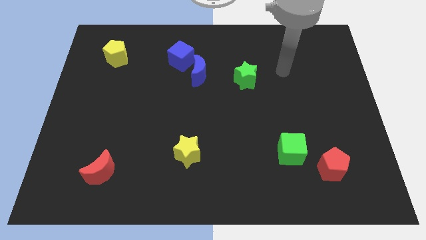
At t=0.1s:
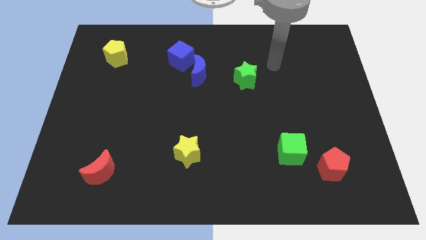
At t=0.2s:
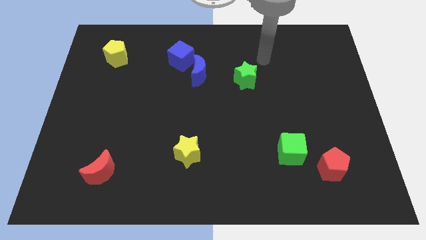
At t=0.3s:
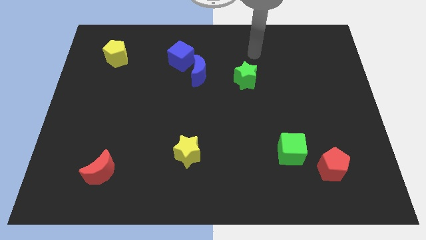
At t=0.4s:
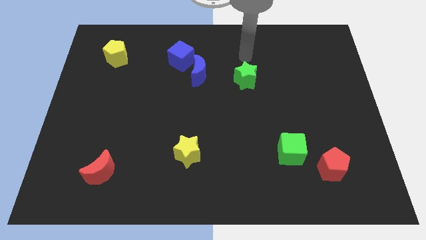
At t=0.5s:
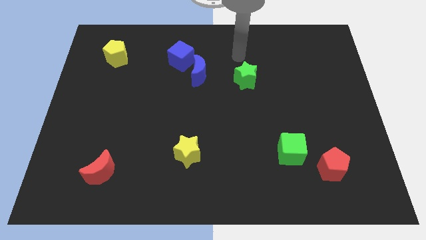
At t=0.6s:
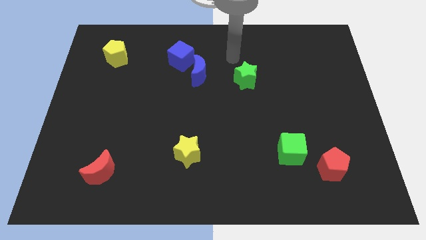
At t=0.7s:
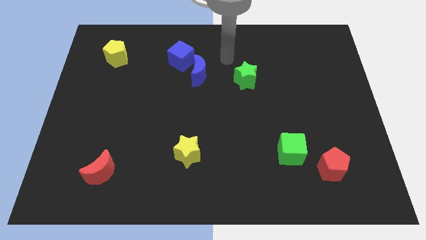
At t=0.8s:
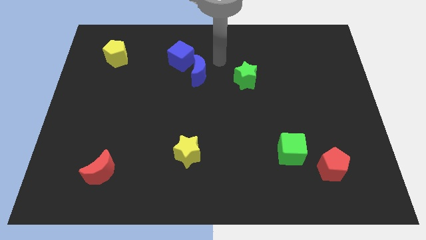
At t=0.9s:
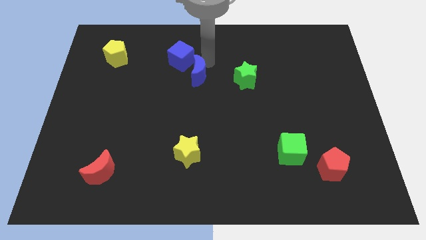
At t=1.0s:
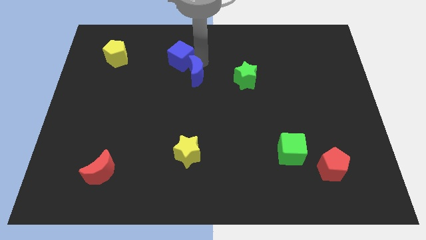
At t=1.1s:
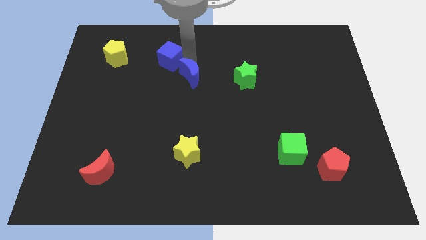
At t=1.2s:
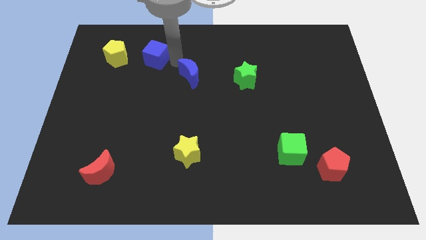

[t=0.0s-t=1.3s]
pull the blue moon apart from the blue cube

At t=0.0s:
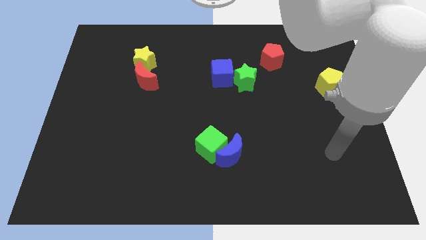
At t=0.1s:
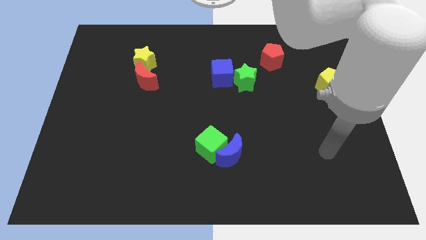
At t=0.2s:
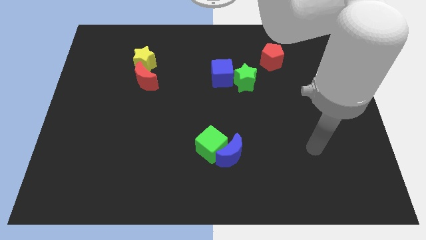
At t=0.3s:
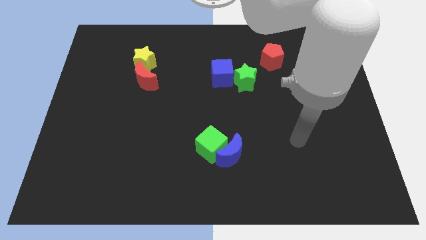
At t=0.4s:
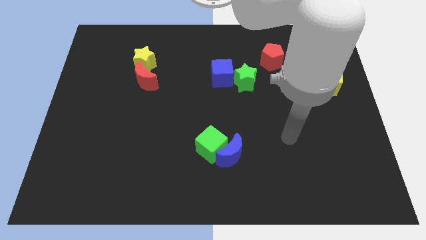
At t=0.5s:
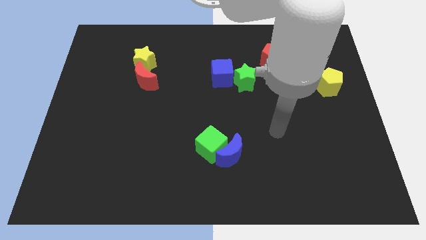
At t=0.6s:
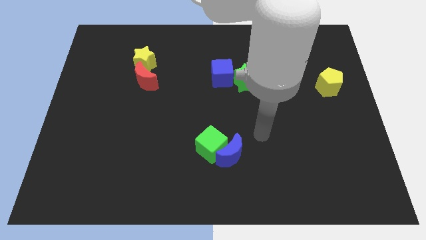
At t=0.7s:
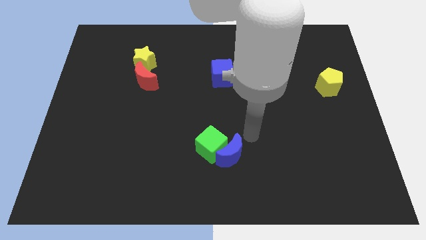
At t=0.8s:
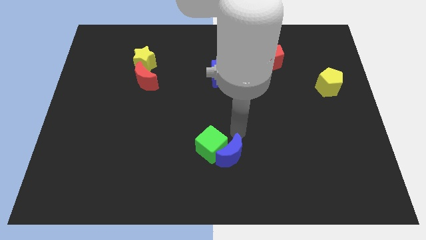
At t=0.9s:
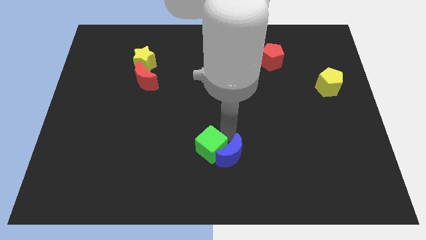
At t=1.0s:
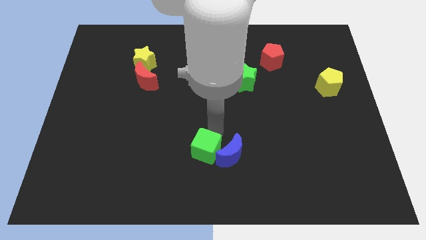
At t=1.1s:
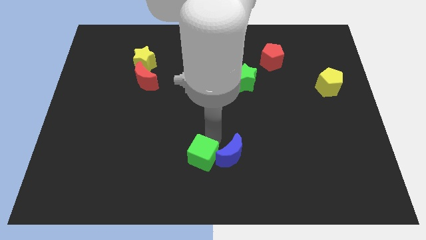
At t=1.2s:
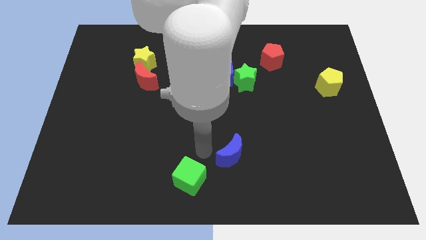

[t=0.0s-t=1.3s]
move the blue moon away from the green cube

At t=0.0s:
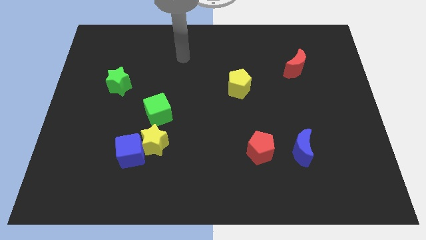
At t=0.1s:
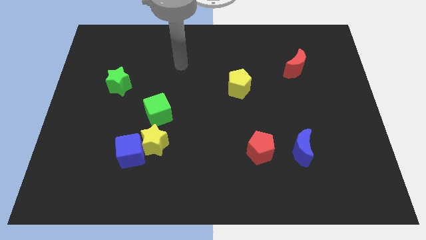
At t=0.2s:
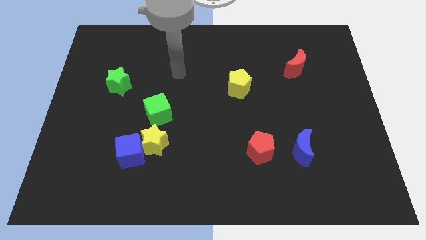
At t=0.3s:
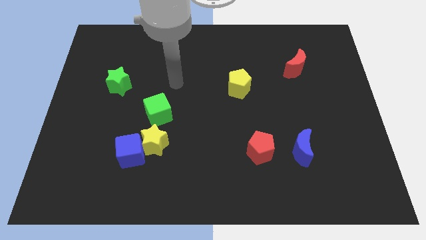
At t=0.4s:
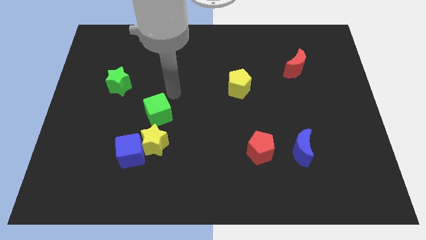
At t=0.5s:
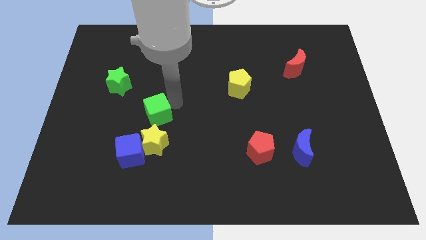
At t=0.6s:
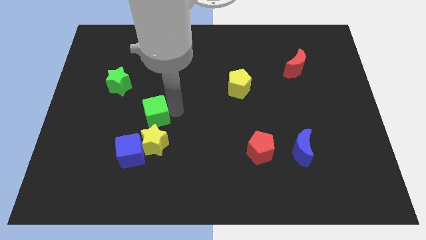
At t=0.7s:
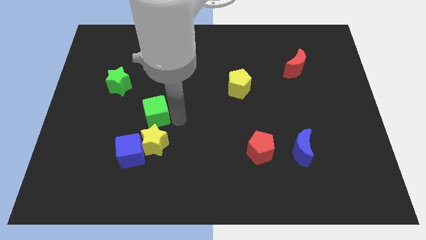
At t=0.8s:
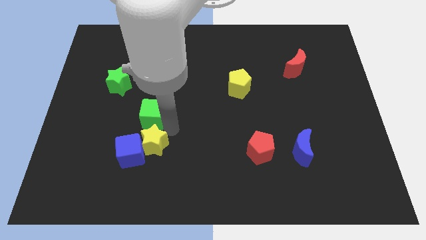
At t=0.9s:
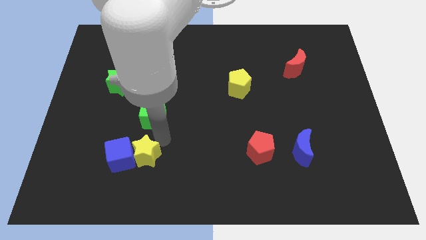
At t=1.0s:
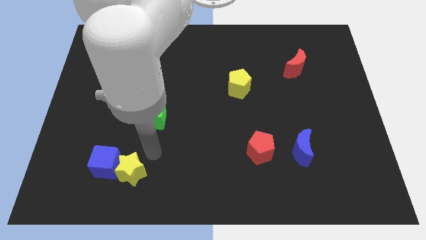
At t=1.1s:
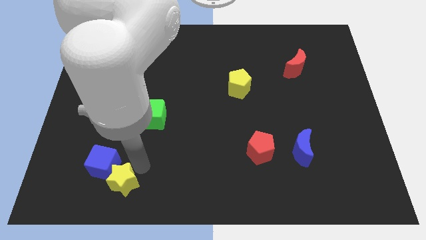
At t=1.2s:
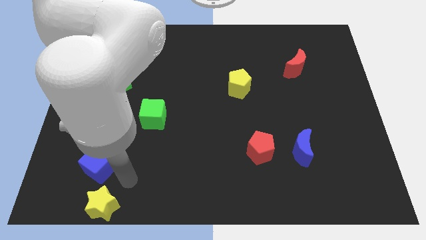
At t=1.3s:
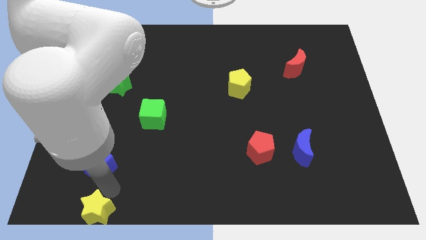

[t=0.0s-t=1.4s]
move the blue cube away from the yellow star

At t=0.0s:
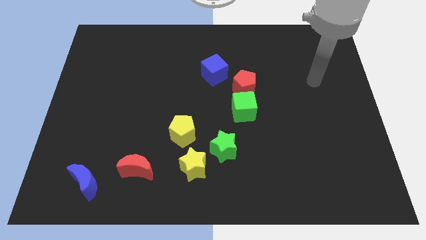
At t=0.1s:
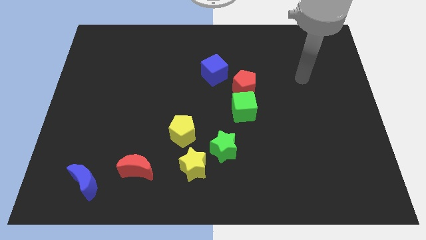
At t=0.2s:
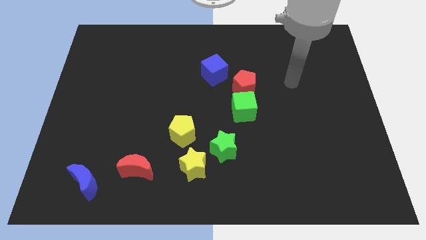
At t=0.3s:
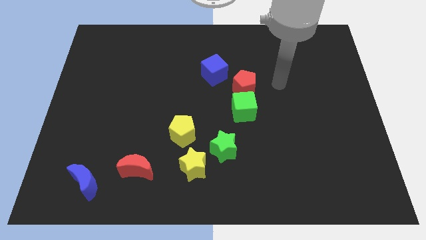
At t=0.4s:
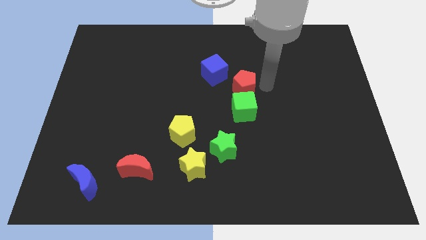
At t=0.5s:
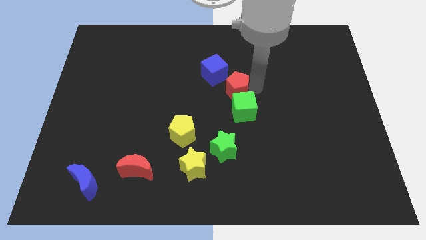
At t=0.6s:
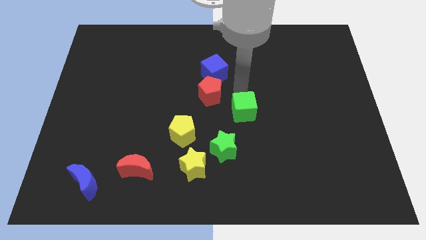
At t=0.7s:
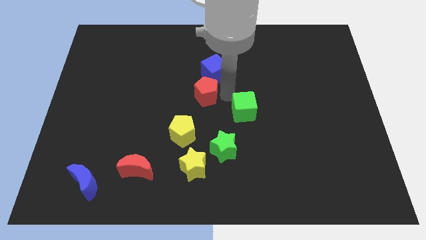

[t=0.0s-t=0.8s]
pull the green cube apart from the red pentagon

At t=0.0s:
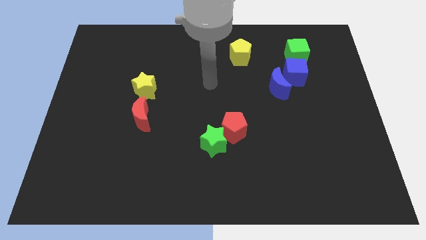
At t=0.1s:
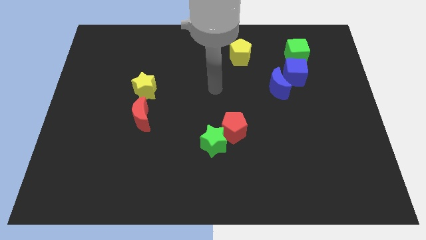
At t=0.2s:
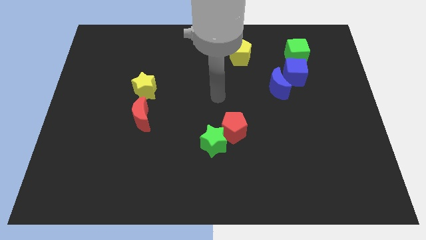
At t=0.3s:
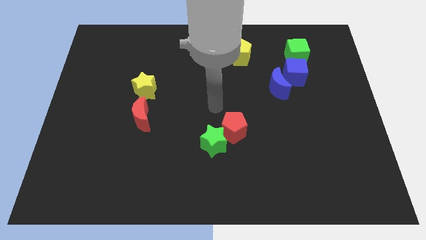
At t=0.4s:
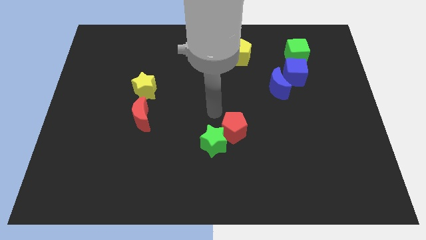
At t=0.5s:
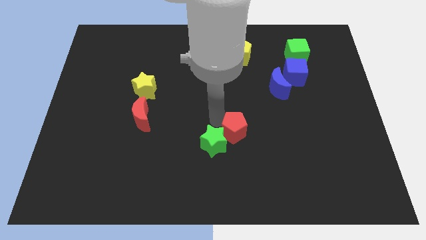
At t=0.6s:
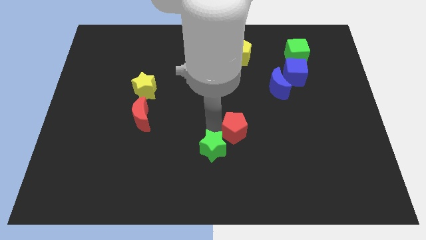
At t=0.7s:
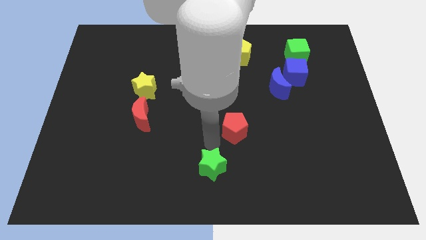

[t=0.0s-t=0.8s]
move the red pentagon away from the green star

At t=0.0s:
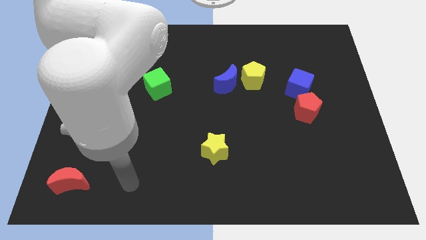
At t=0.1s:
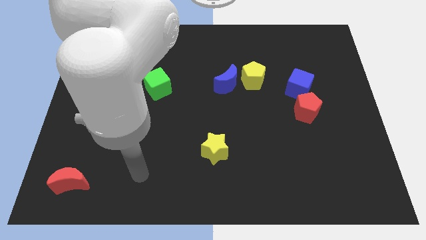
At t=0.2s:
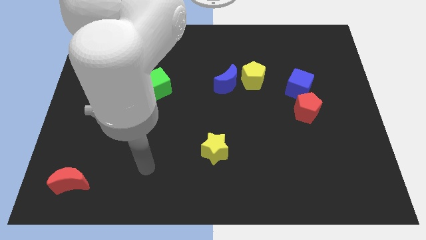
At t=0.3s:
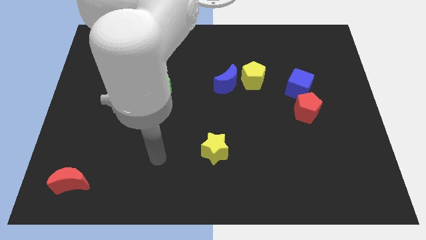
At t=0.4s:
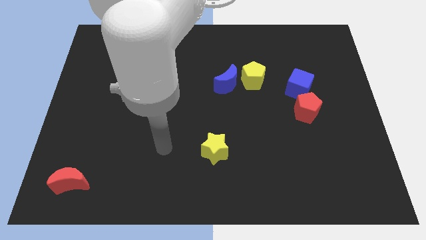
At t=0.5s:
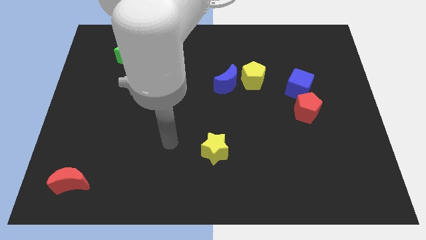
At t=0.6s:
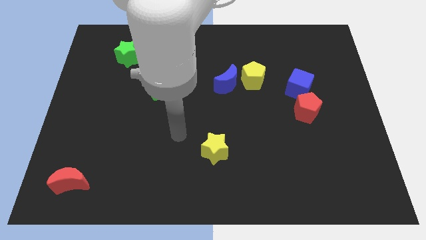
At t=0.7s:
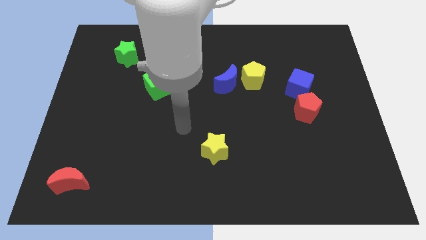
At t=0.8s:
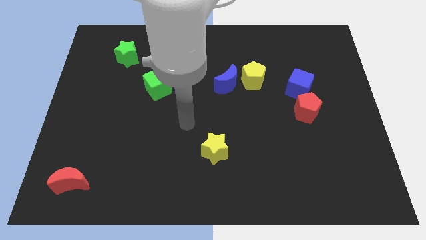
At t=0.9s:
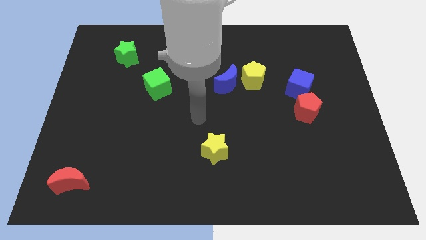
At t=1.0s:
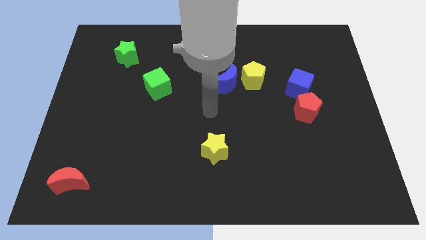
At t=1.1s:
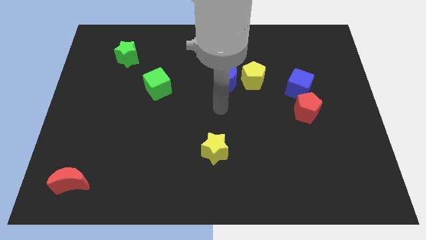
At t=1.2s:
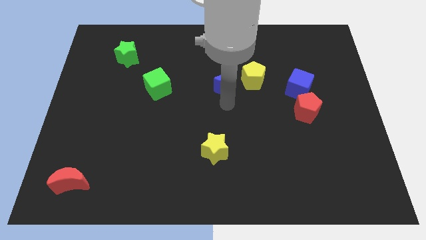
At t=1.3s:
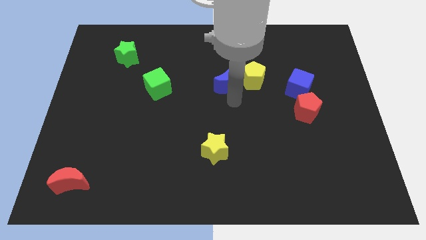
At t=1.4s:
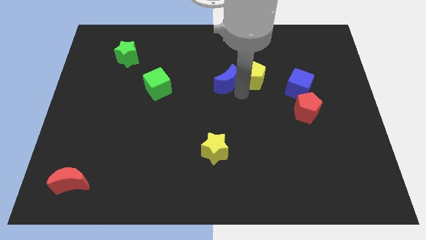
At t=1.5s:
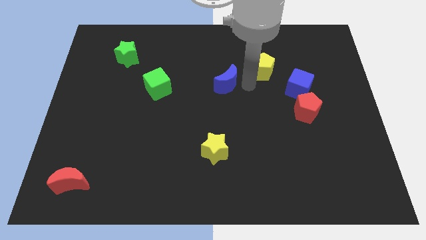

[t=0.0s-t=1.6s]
move the blue moon away from the yellow pentagon

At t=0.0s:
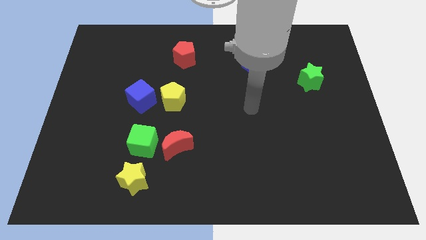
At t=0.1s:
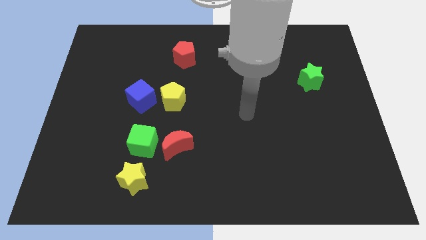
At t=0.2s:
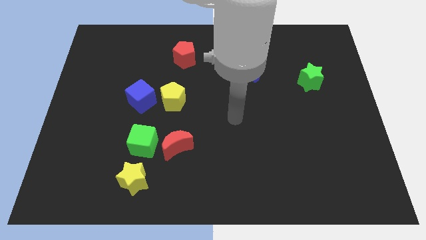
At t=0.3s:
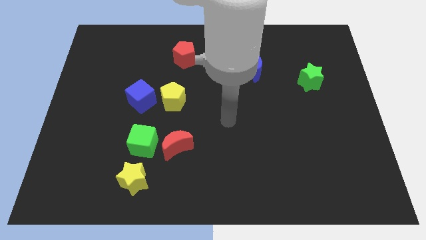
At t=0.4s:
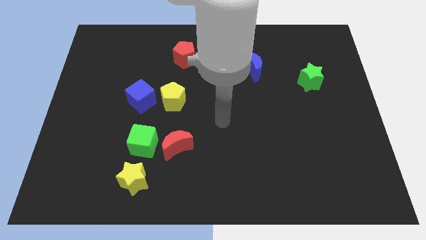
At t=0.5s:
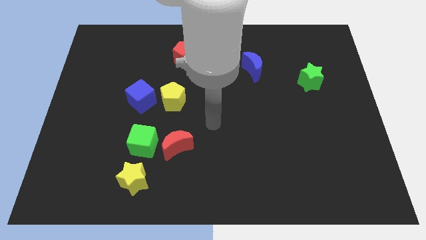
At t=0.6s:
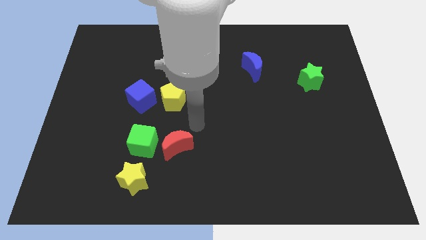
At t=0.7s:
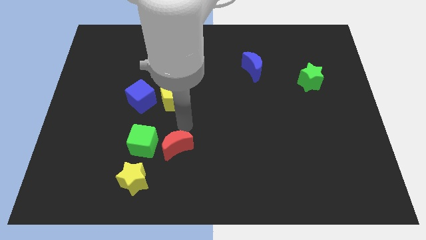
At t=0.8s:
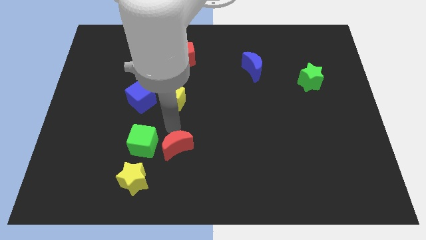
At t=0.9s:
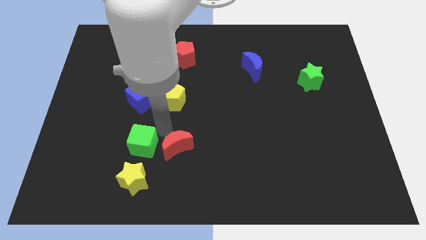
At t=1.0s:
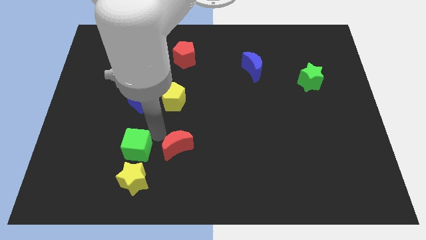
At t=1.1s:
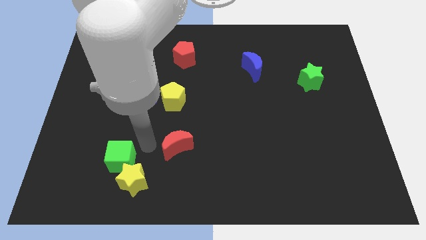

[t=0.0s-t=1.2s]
move the red moon away from the green cube

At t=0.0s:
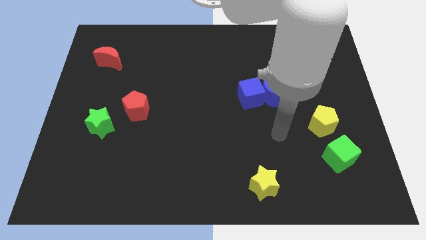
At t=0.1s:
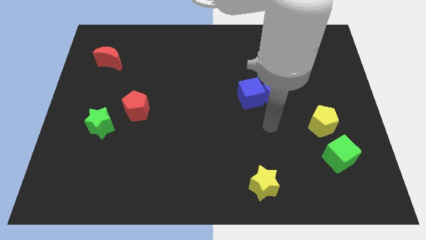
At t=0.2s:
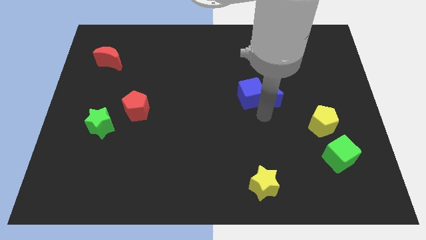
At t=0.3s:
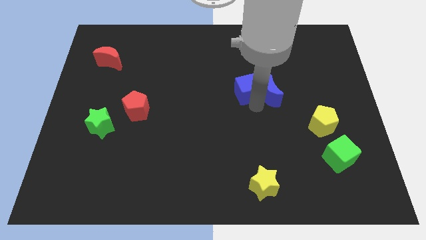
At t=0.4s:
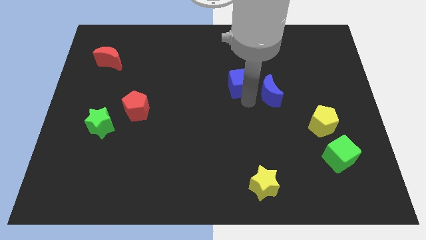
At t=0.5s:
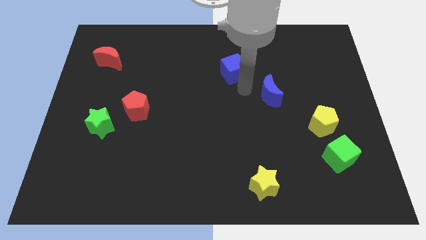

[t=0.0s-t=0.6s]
separate the blue moon from the blue cube

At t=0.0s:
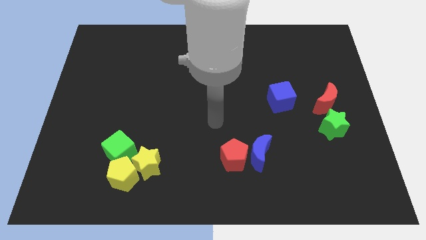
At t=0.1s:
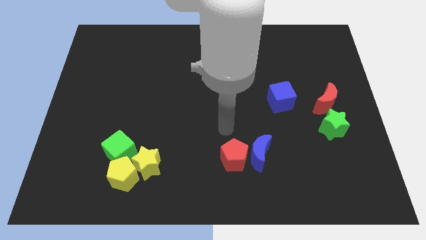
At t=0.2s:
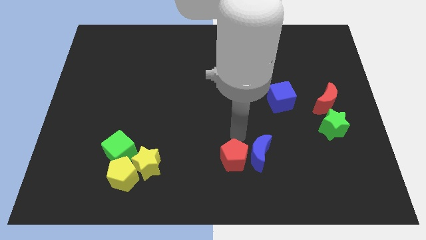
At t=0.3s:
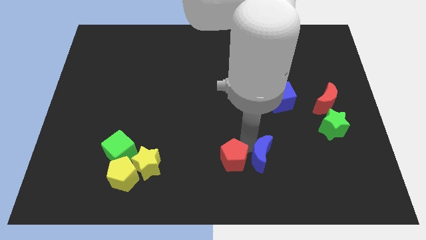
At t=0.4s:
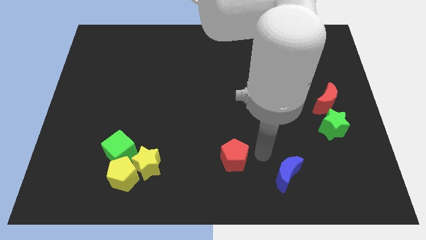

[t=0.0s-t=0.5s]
pull the red pentagon apart from the blue moon
